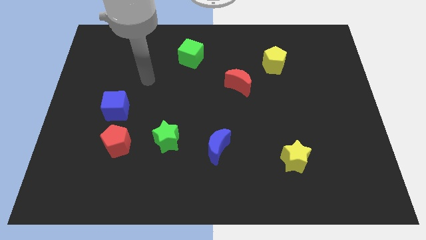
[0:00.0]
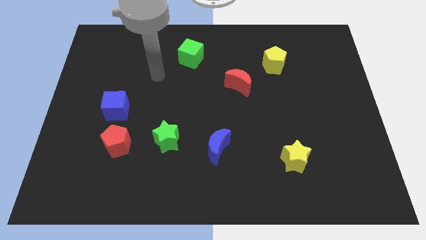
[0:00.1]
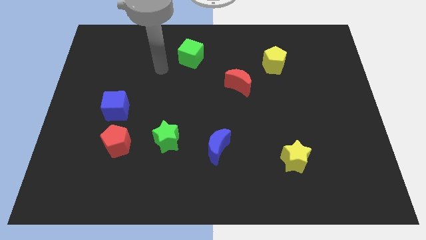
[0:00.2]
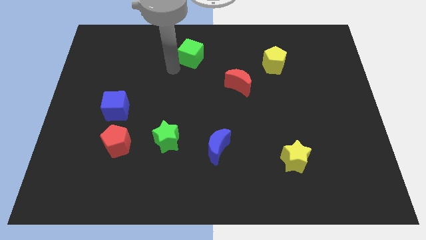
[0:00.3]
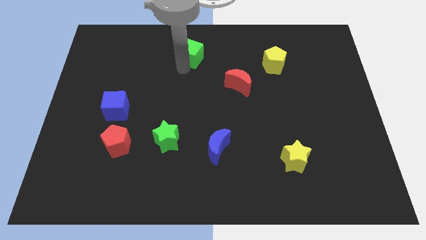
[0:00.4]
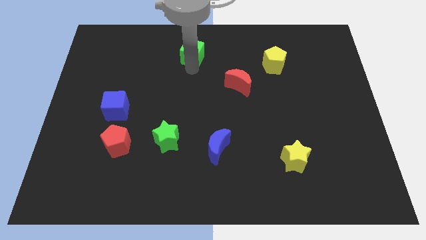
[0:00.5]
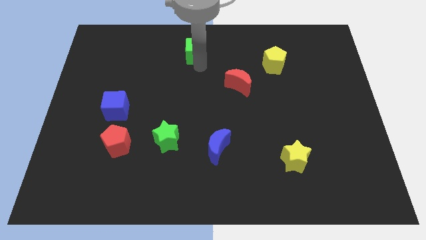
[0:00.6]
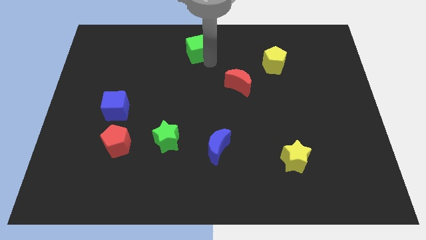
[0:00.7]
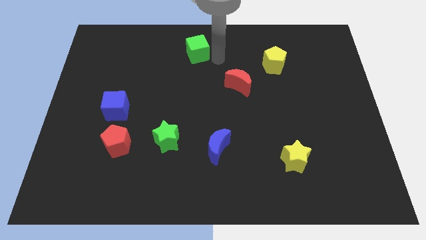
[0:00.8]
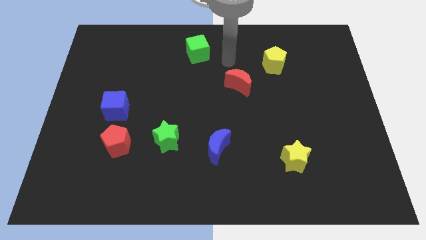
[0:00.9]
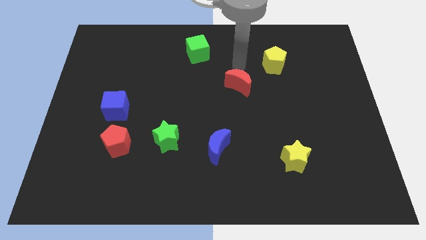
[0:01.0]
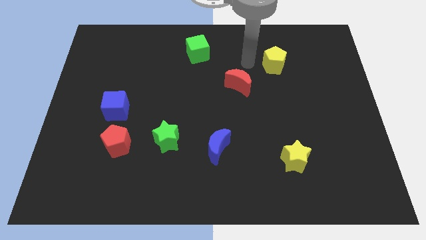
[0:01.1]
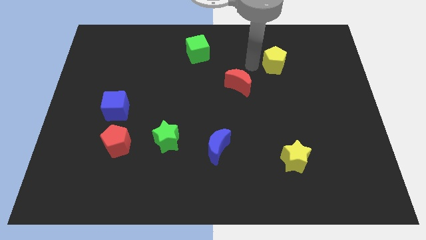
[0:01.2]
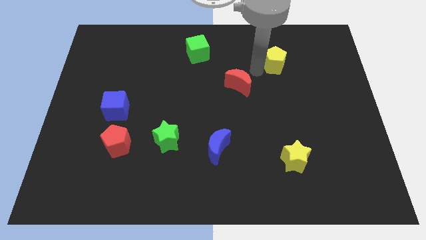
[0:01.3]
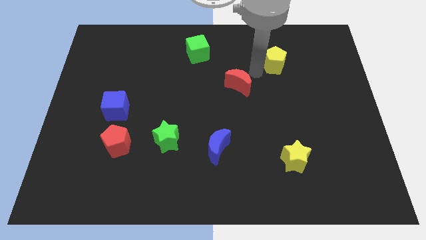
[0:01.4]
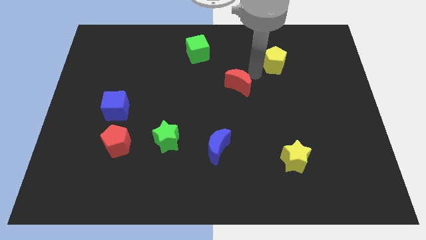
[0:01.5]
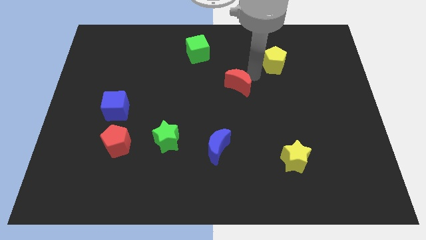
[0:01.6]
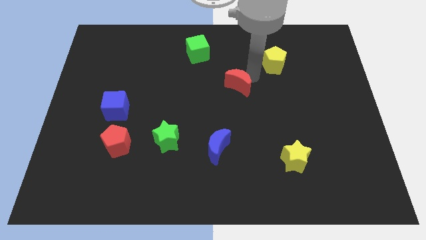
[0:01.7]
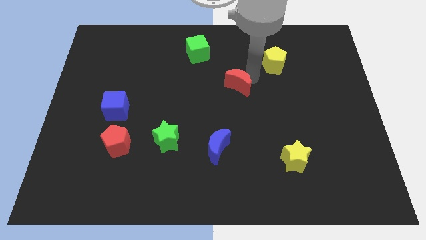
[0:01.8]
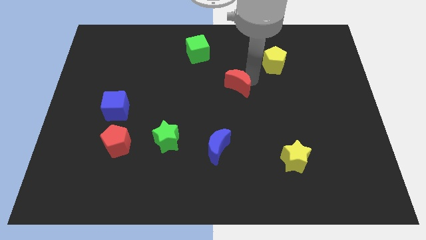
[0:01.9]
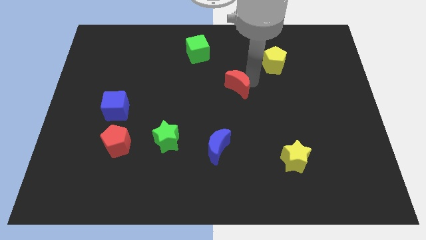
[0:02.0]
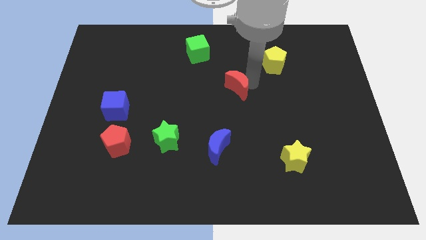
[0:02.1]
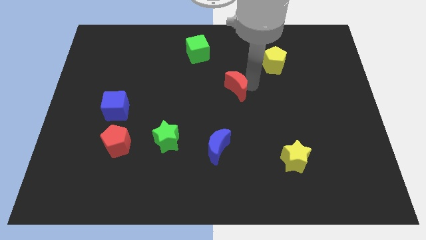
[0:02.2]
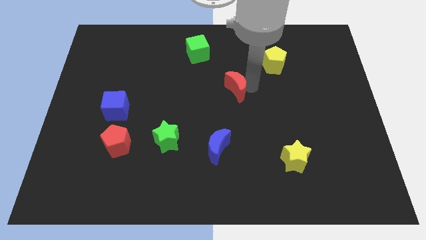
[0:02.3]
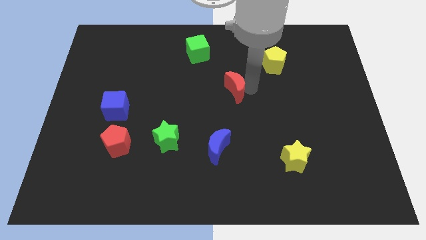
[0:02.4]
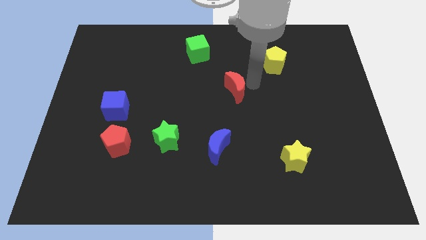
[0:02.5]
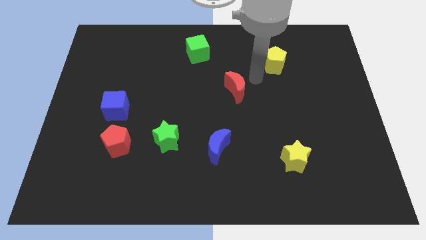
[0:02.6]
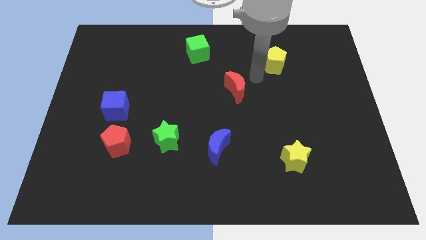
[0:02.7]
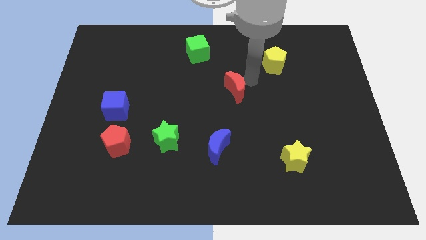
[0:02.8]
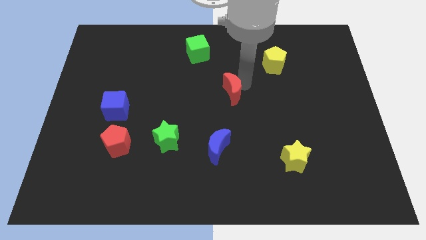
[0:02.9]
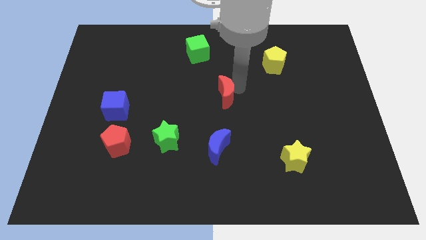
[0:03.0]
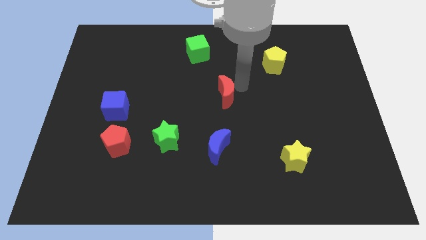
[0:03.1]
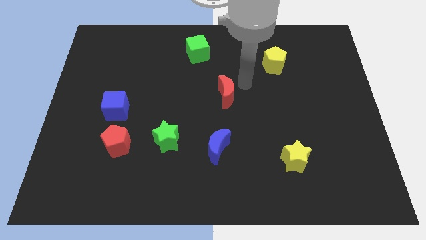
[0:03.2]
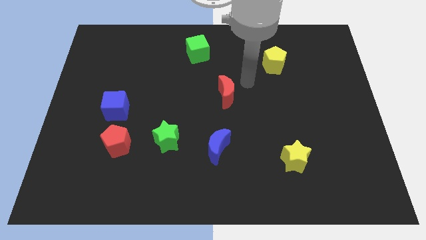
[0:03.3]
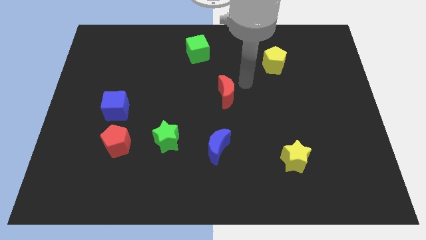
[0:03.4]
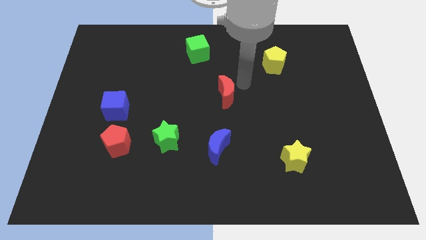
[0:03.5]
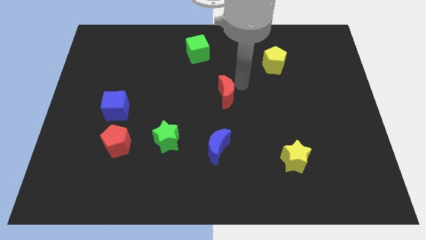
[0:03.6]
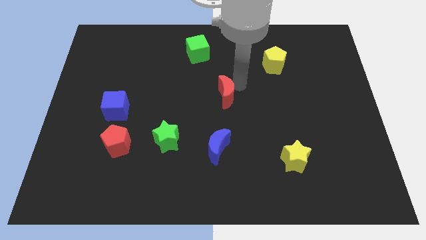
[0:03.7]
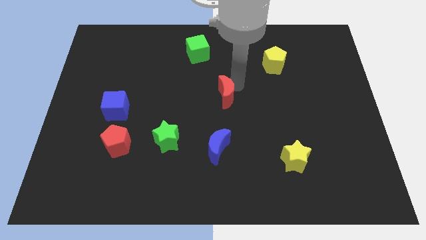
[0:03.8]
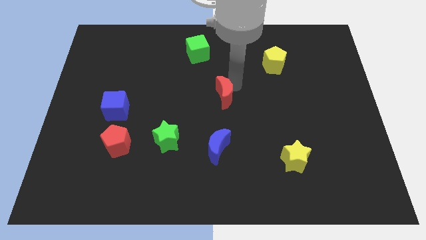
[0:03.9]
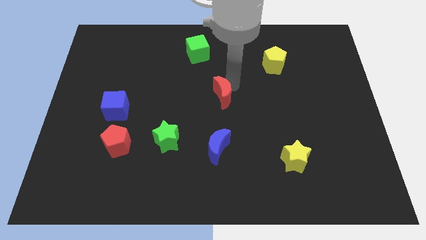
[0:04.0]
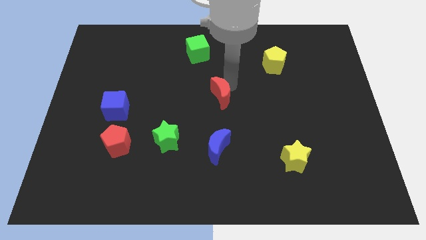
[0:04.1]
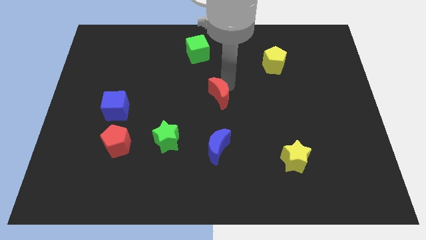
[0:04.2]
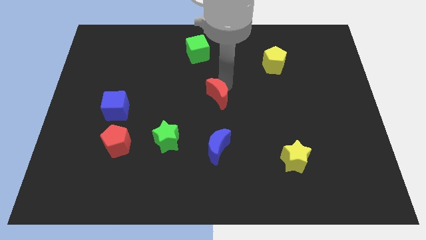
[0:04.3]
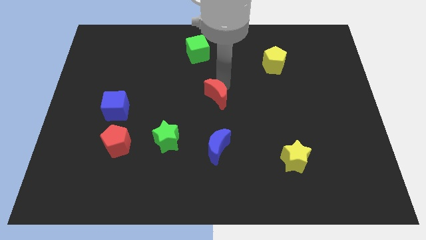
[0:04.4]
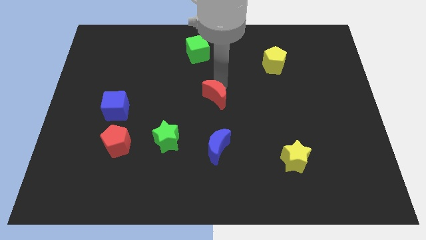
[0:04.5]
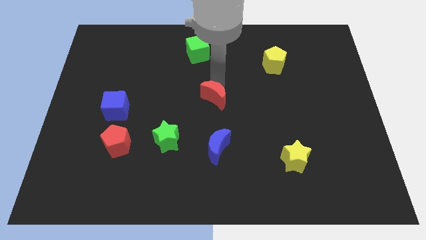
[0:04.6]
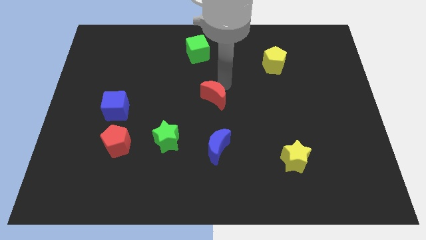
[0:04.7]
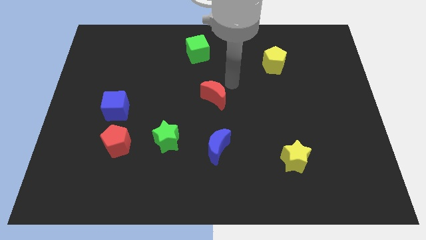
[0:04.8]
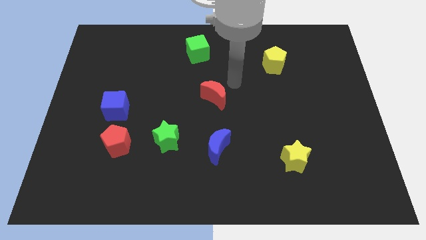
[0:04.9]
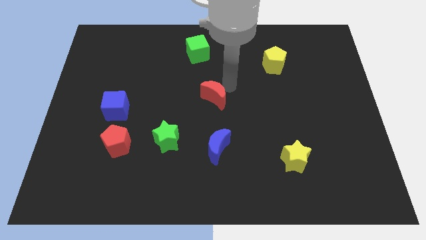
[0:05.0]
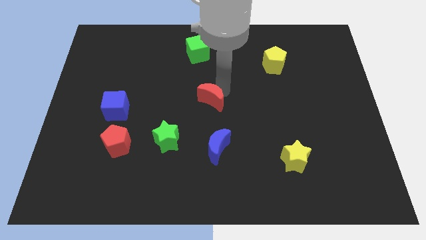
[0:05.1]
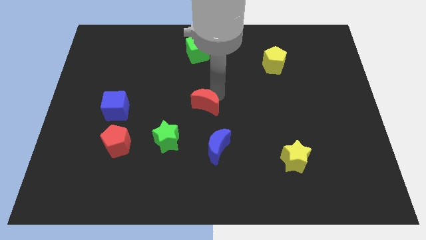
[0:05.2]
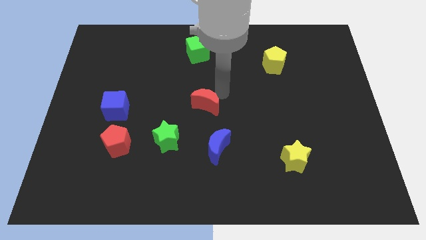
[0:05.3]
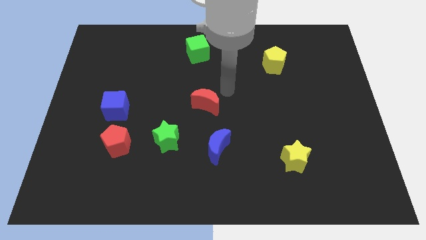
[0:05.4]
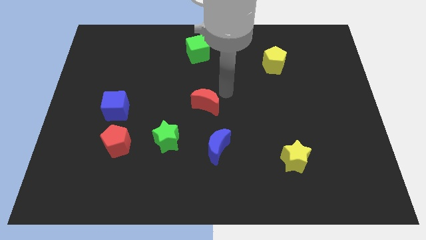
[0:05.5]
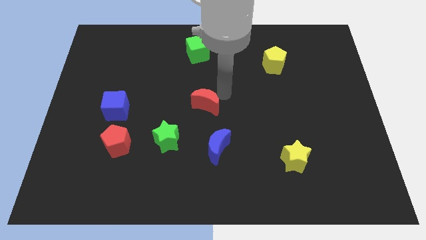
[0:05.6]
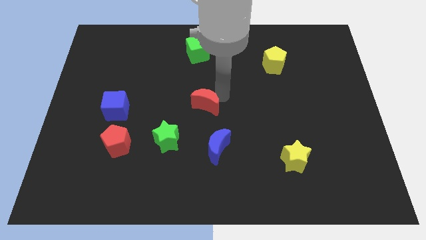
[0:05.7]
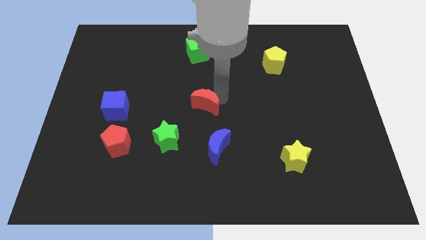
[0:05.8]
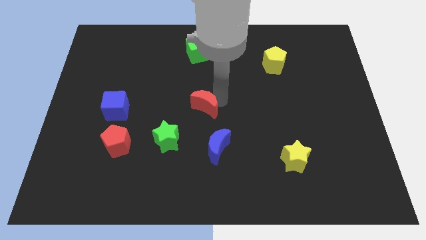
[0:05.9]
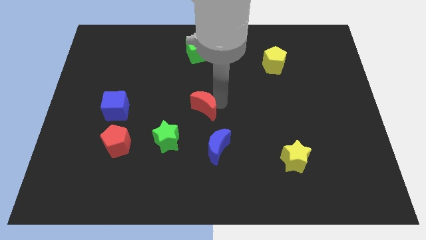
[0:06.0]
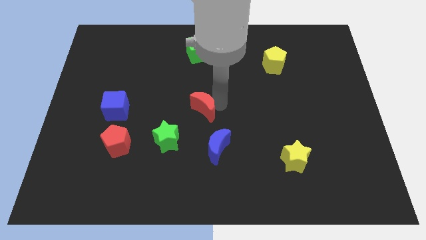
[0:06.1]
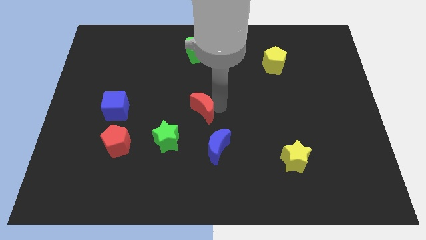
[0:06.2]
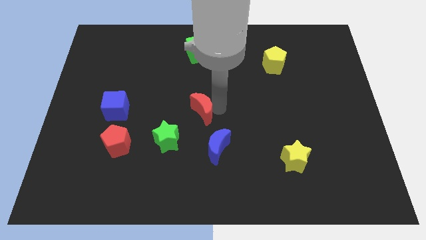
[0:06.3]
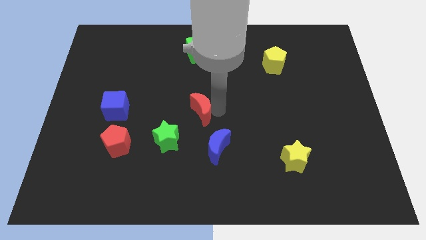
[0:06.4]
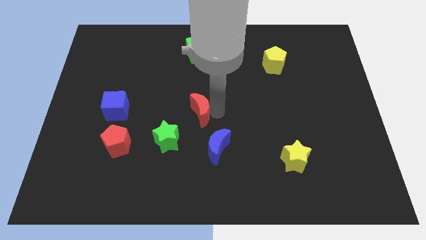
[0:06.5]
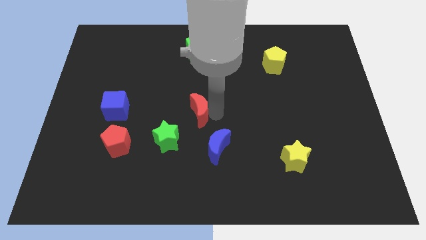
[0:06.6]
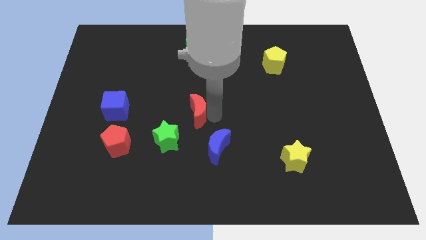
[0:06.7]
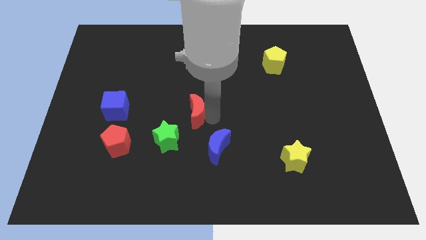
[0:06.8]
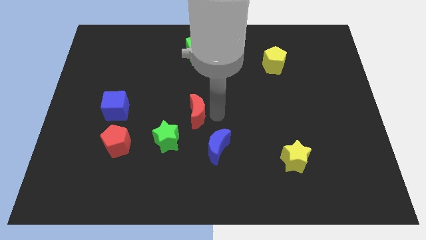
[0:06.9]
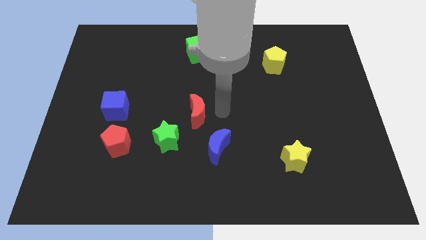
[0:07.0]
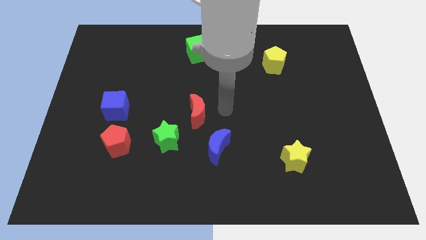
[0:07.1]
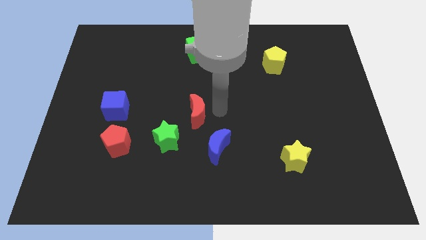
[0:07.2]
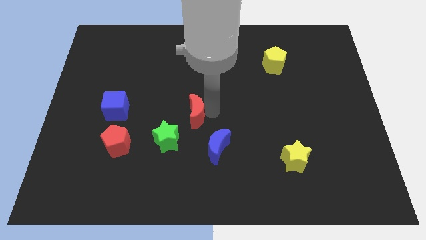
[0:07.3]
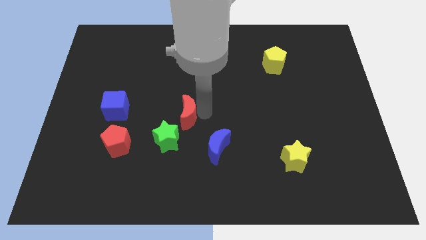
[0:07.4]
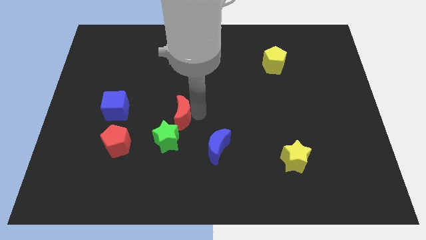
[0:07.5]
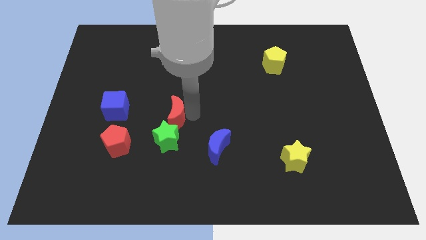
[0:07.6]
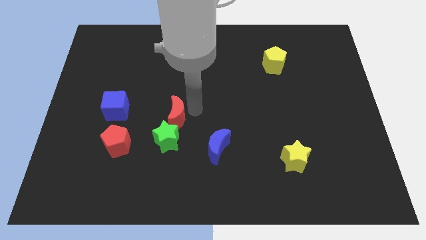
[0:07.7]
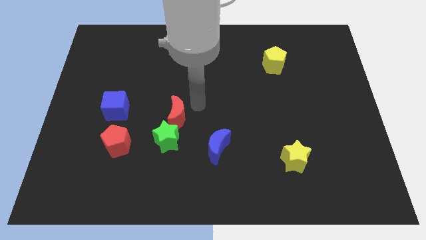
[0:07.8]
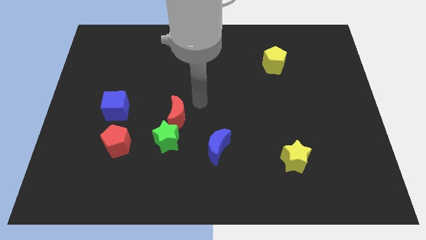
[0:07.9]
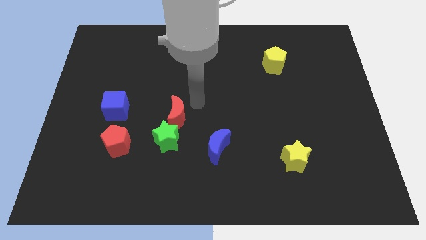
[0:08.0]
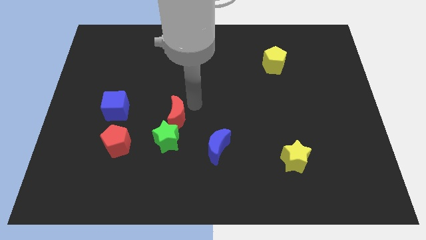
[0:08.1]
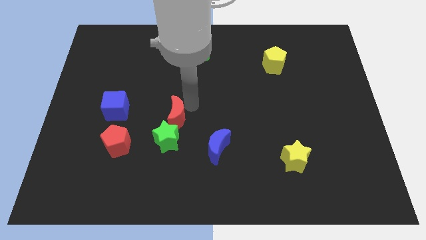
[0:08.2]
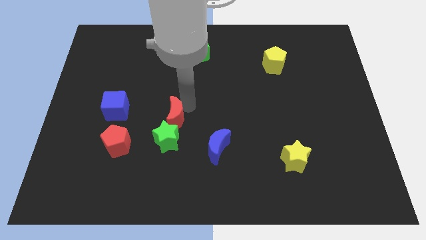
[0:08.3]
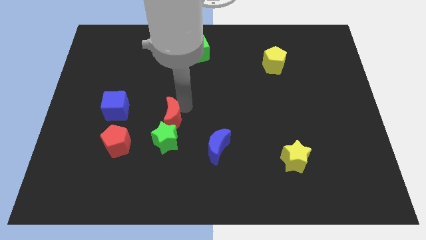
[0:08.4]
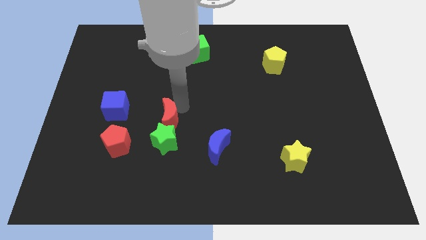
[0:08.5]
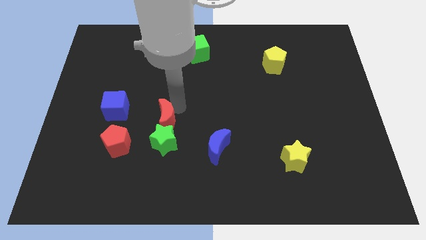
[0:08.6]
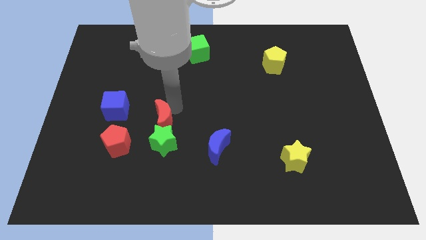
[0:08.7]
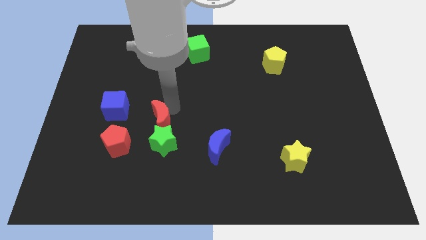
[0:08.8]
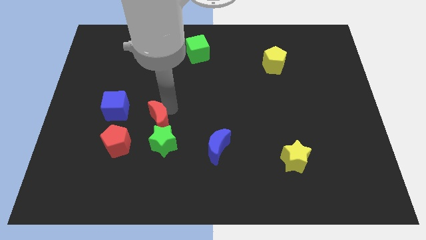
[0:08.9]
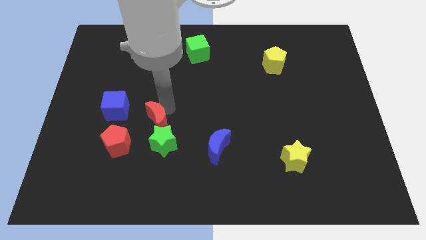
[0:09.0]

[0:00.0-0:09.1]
push the red moon diagonally downwards and left
